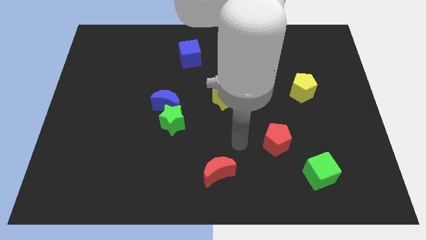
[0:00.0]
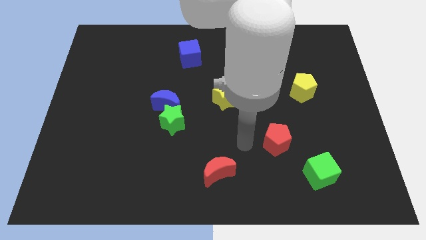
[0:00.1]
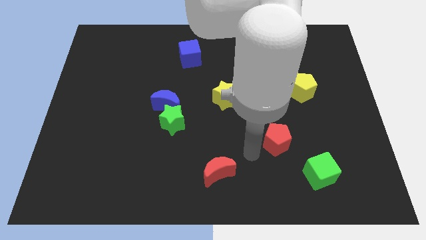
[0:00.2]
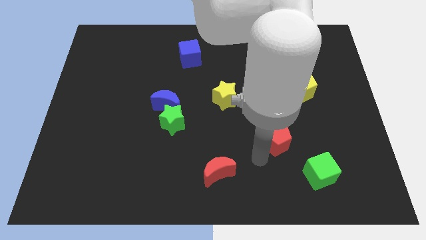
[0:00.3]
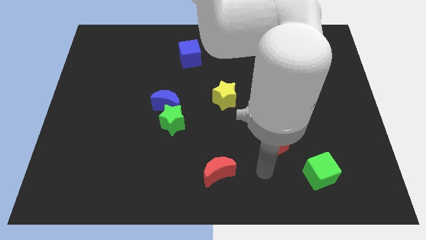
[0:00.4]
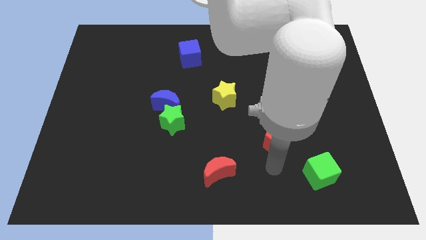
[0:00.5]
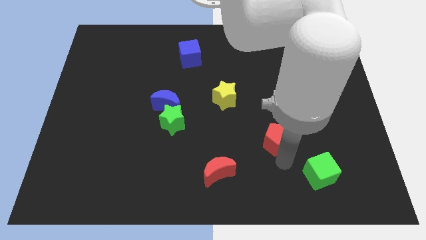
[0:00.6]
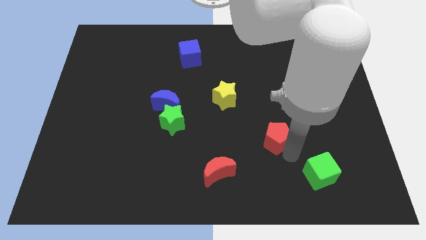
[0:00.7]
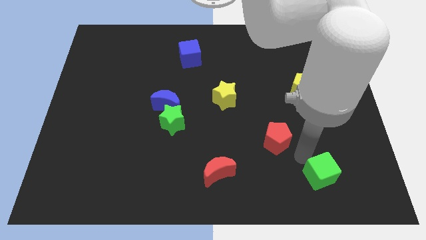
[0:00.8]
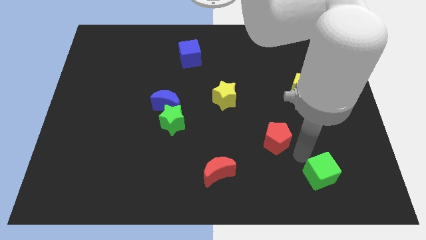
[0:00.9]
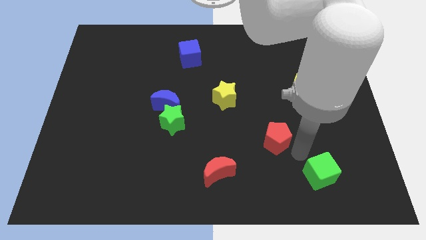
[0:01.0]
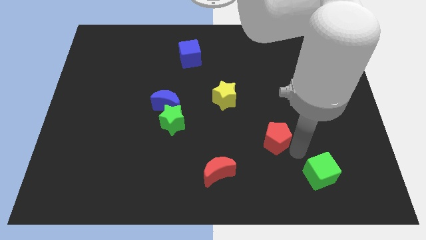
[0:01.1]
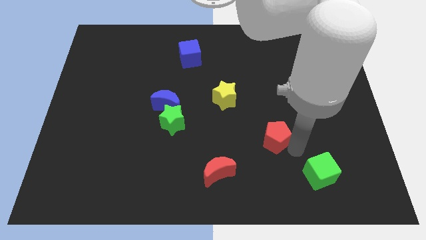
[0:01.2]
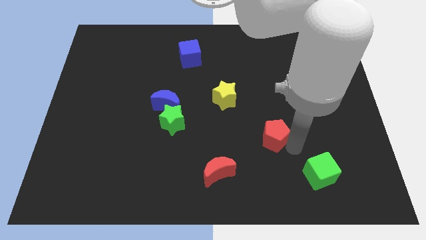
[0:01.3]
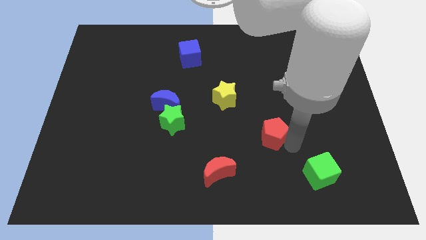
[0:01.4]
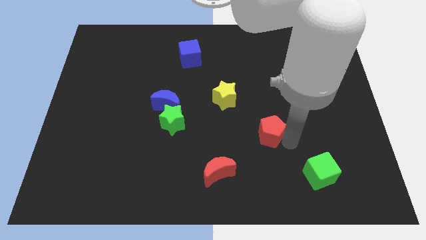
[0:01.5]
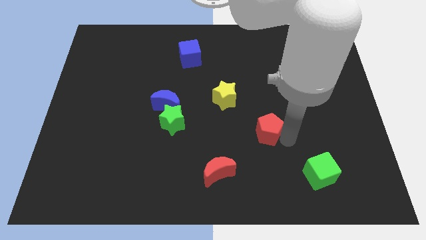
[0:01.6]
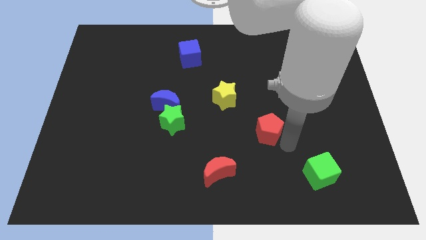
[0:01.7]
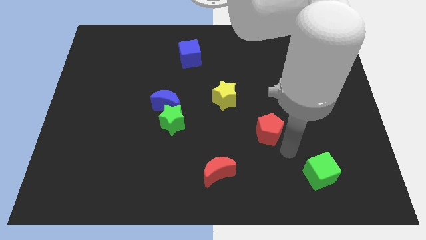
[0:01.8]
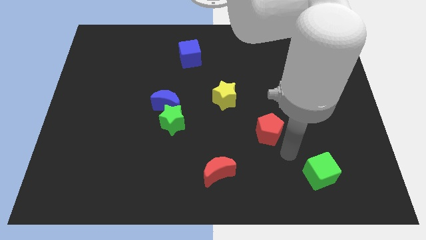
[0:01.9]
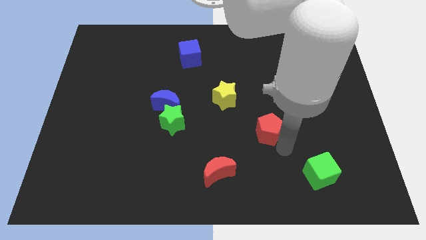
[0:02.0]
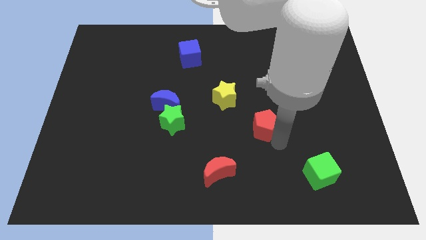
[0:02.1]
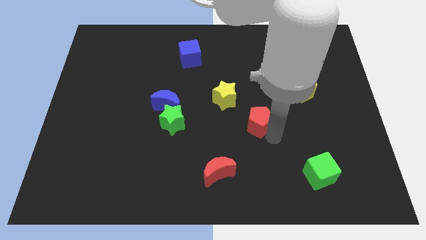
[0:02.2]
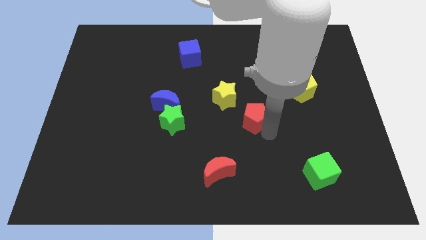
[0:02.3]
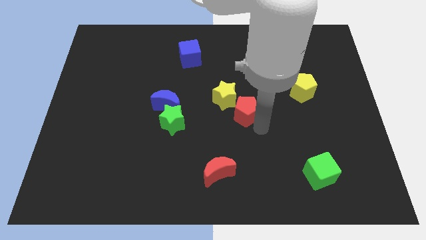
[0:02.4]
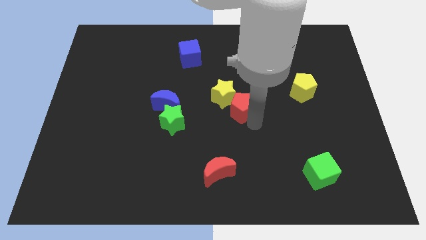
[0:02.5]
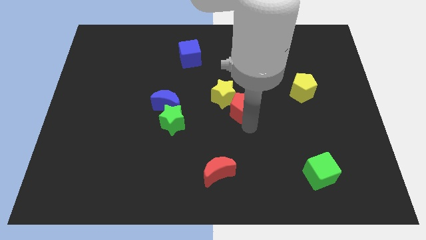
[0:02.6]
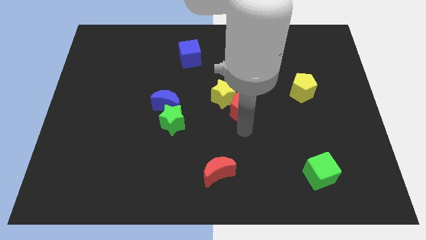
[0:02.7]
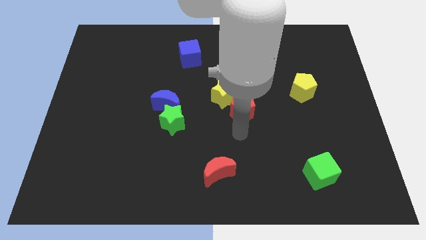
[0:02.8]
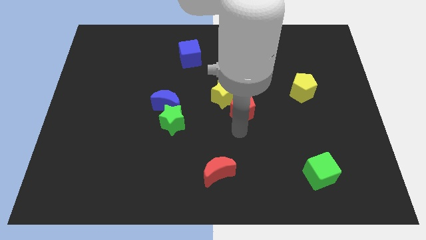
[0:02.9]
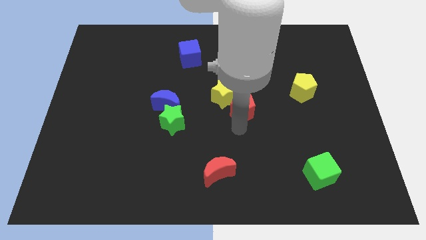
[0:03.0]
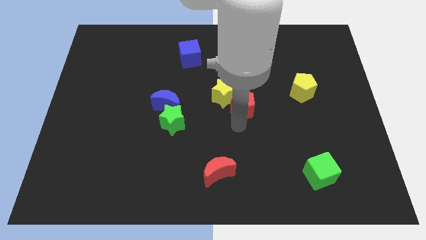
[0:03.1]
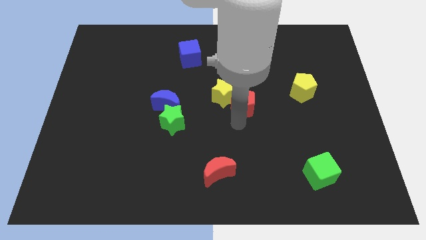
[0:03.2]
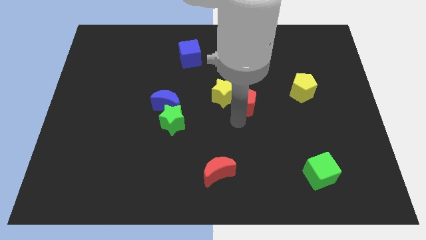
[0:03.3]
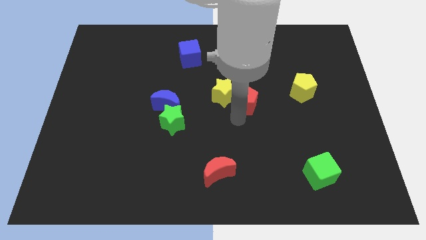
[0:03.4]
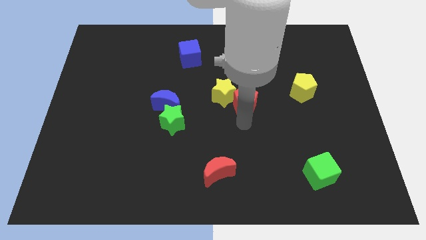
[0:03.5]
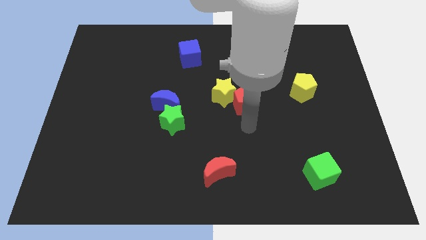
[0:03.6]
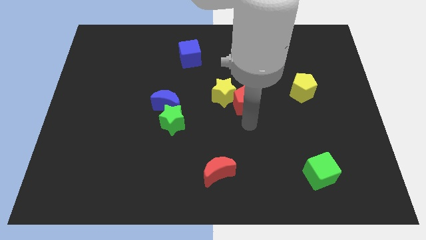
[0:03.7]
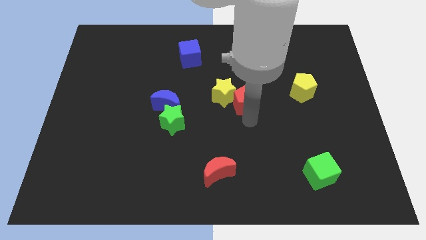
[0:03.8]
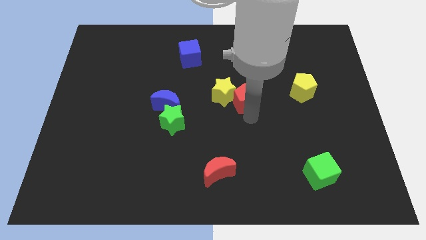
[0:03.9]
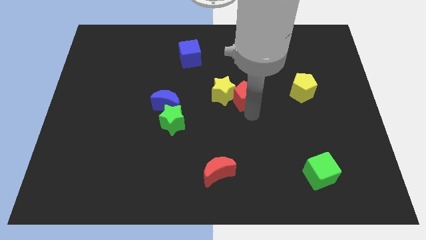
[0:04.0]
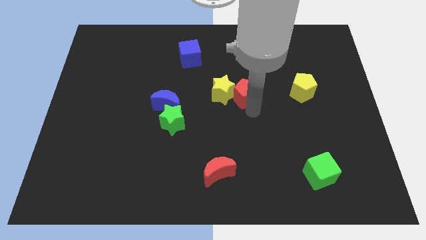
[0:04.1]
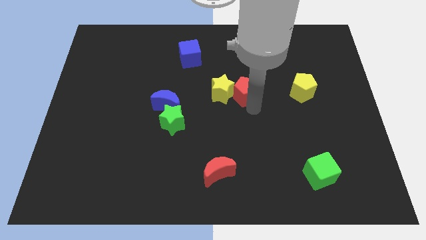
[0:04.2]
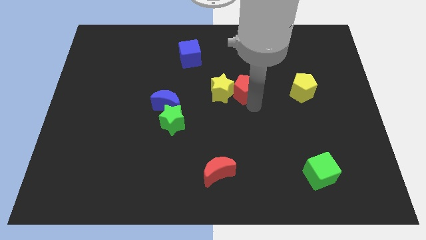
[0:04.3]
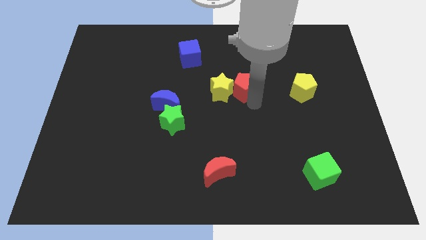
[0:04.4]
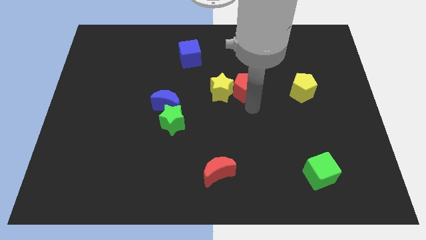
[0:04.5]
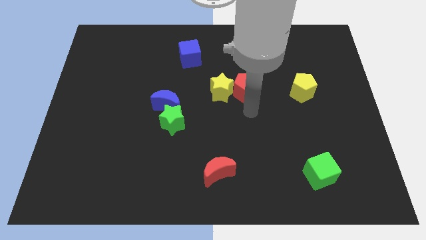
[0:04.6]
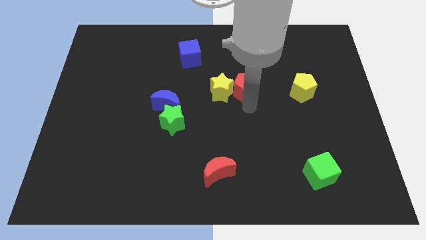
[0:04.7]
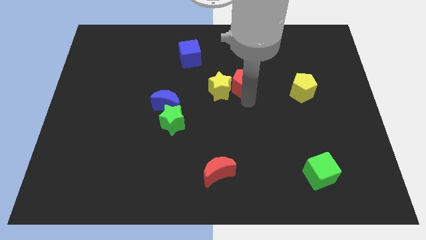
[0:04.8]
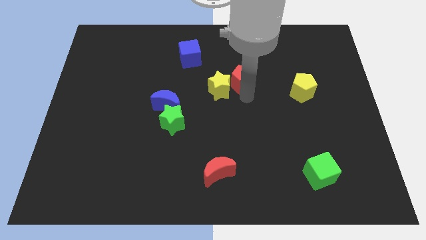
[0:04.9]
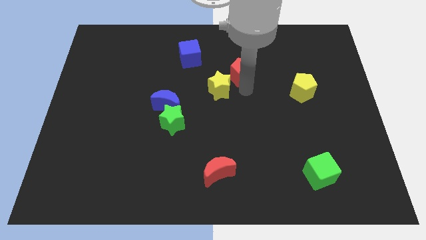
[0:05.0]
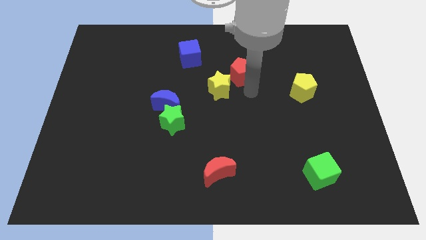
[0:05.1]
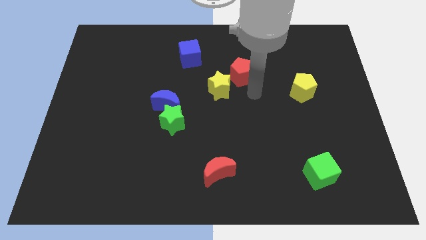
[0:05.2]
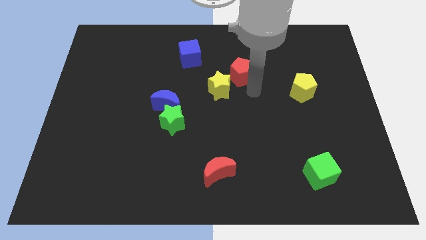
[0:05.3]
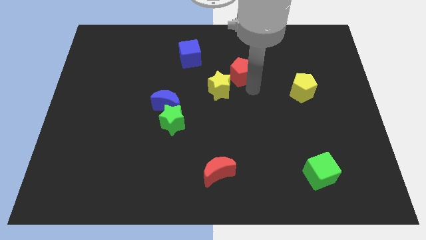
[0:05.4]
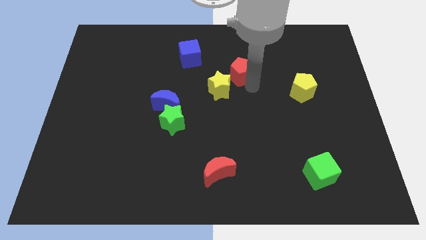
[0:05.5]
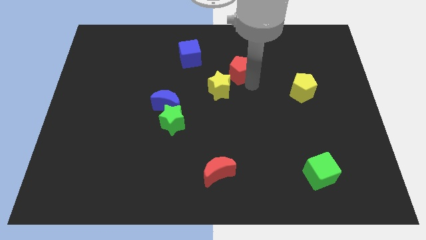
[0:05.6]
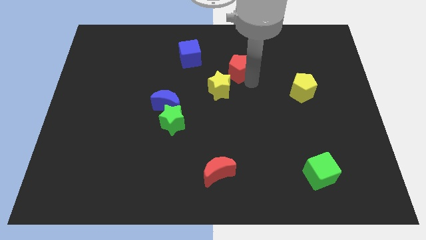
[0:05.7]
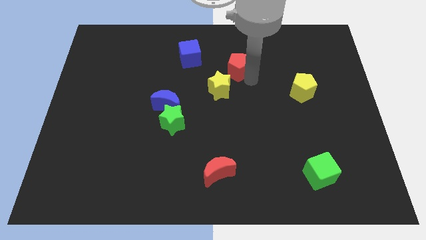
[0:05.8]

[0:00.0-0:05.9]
slide the red pentagon right of the blue cube
